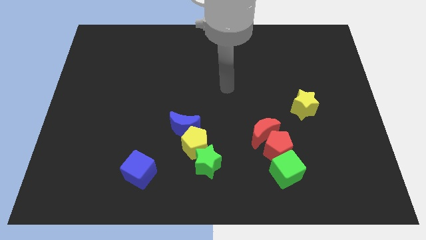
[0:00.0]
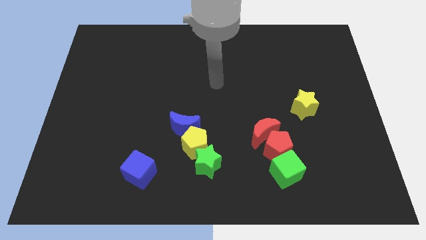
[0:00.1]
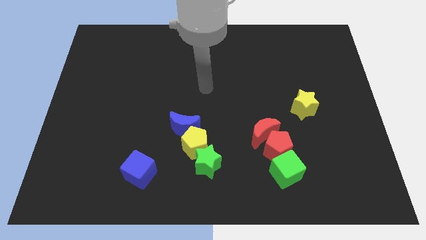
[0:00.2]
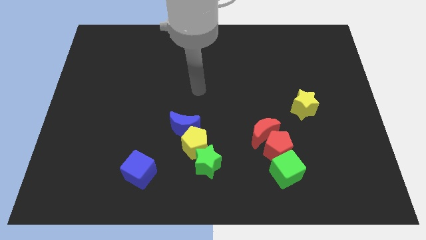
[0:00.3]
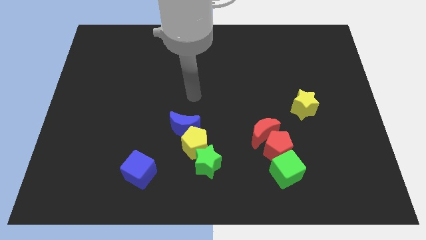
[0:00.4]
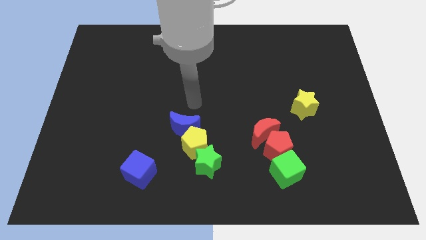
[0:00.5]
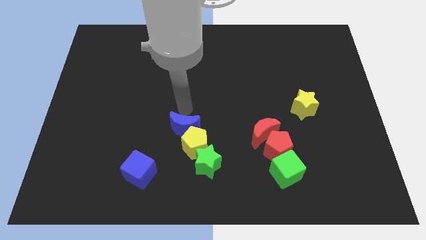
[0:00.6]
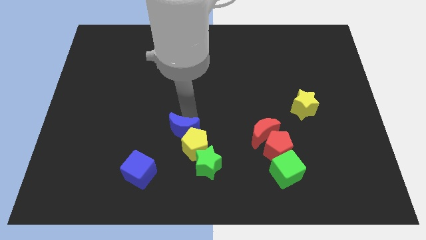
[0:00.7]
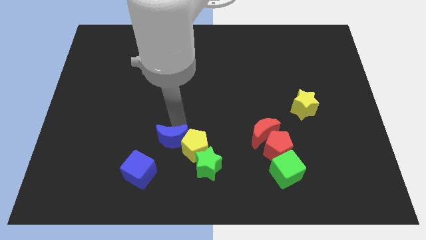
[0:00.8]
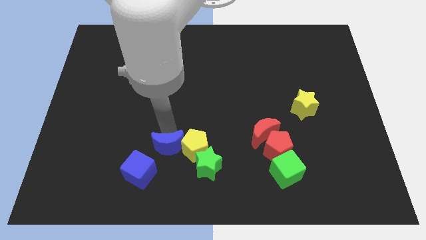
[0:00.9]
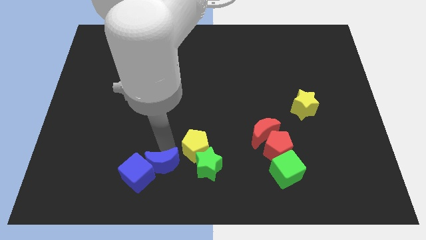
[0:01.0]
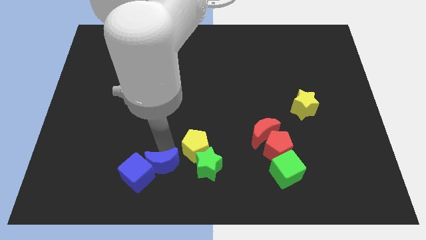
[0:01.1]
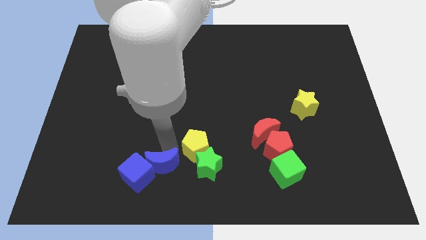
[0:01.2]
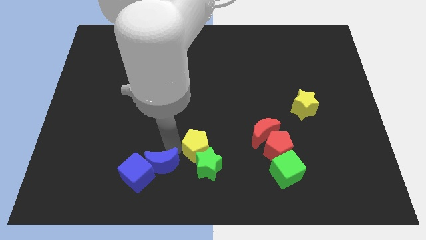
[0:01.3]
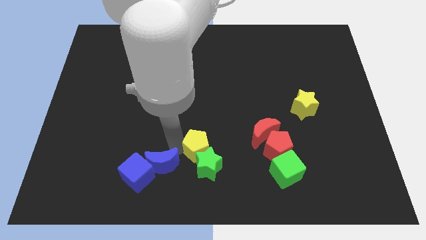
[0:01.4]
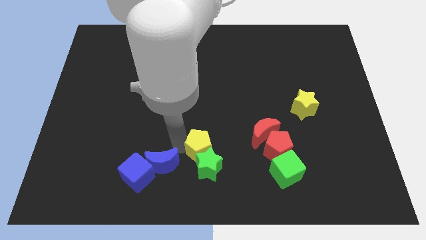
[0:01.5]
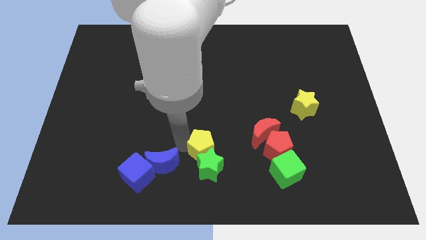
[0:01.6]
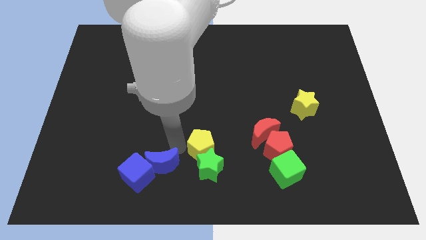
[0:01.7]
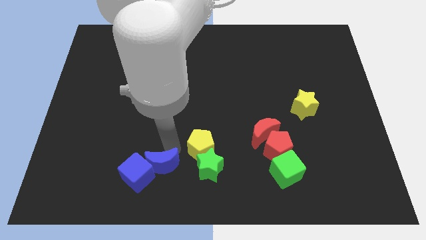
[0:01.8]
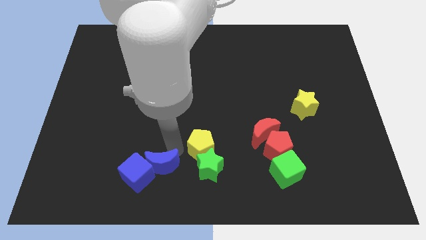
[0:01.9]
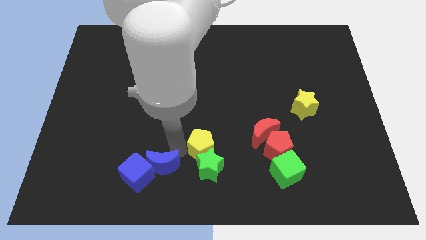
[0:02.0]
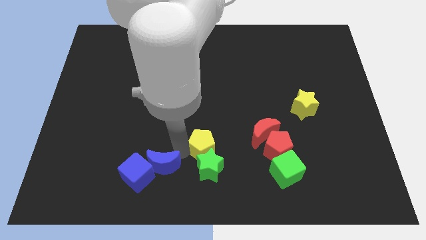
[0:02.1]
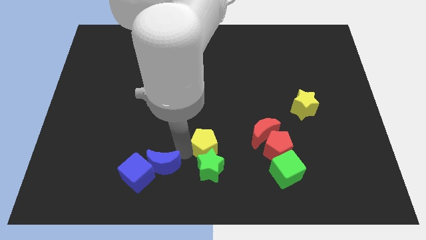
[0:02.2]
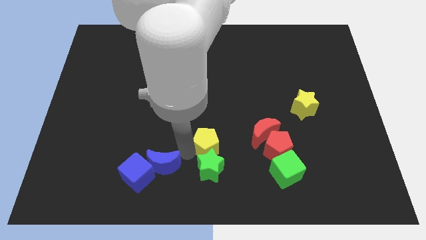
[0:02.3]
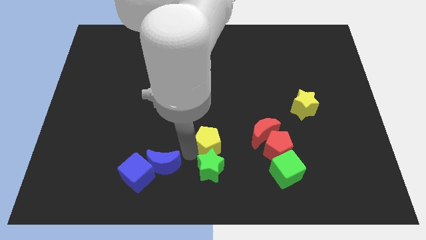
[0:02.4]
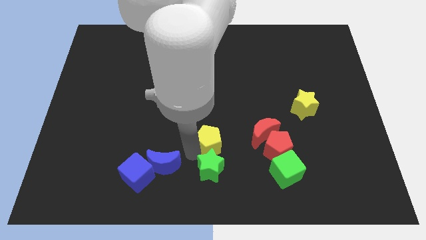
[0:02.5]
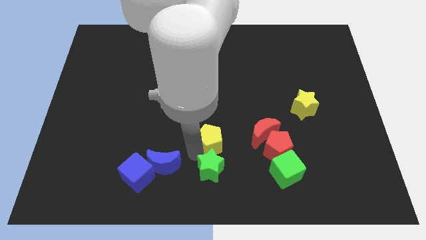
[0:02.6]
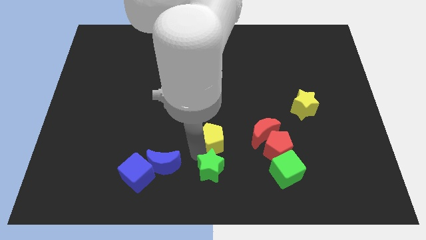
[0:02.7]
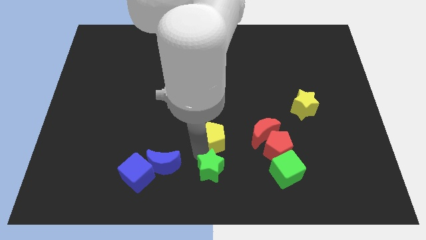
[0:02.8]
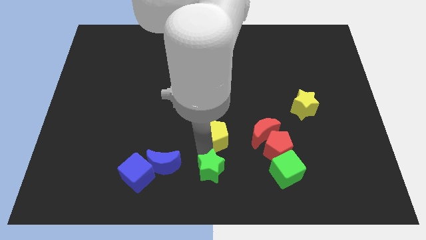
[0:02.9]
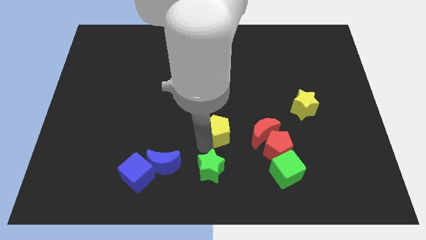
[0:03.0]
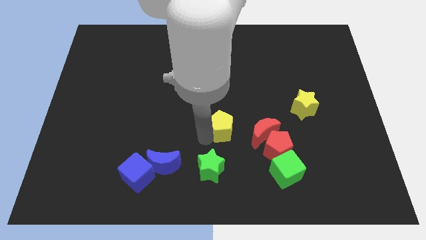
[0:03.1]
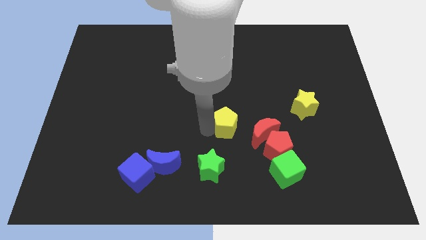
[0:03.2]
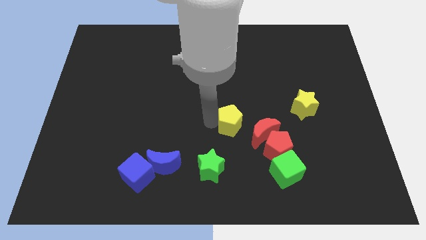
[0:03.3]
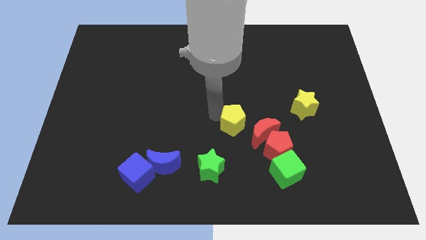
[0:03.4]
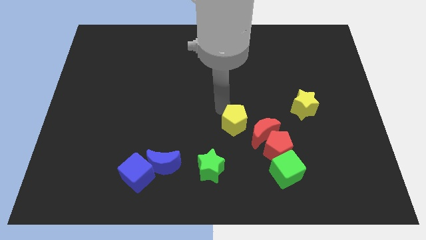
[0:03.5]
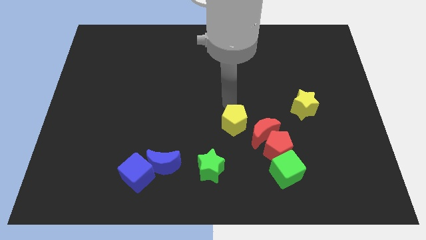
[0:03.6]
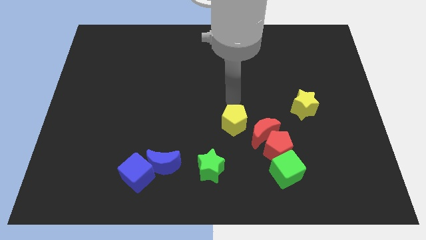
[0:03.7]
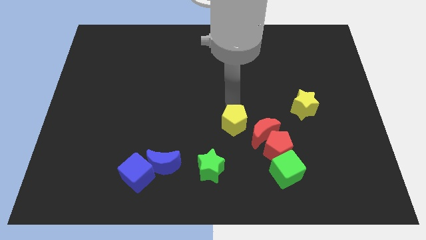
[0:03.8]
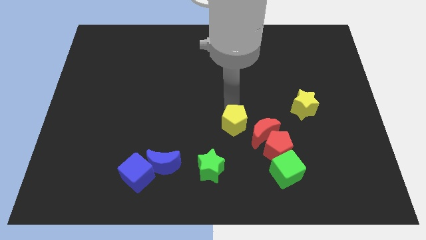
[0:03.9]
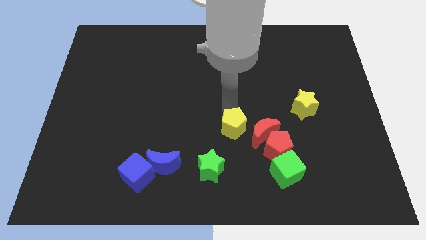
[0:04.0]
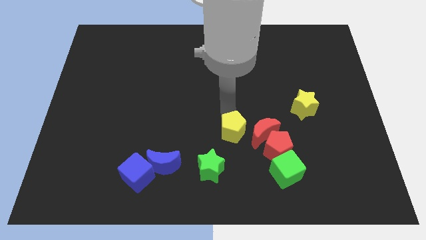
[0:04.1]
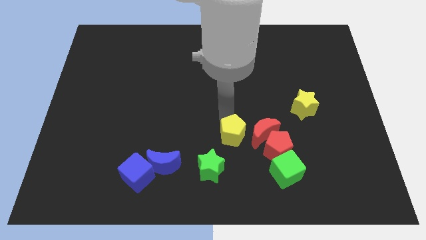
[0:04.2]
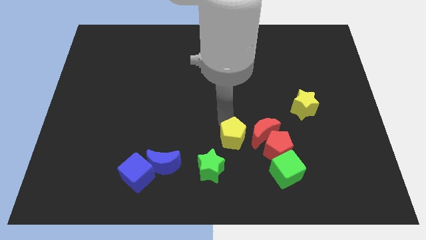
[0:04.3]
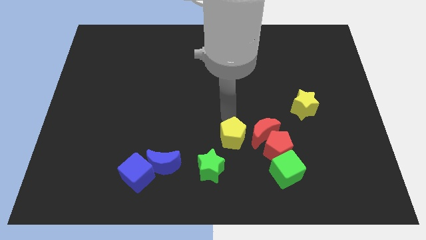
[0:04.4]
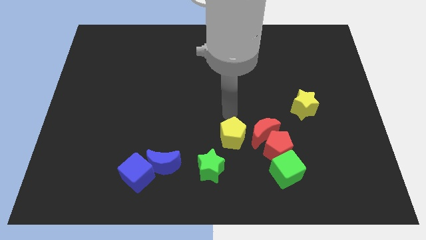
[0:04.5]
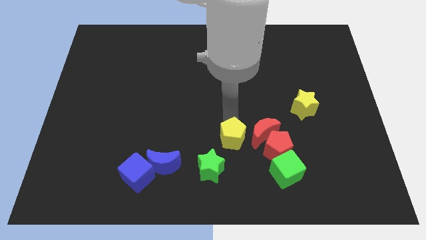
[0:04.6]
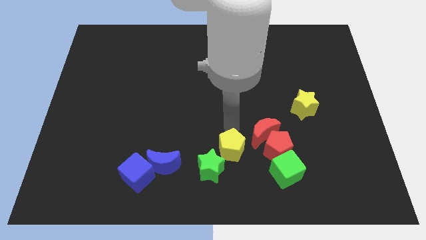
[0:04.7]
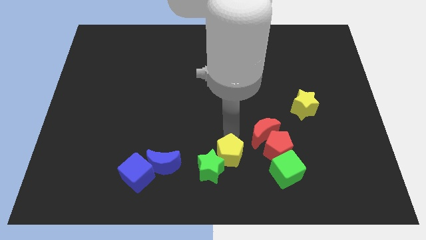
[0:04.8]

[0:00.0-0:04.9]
slide the yellow pentagon to the left of the green cube

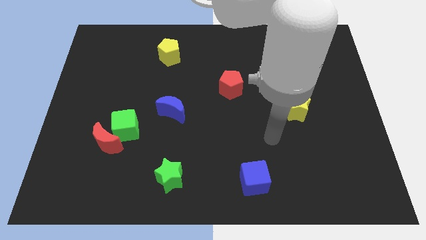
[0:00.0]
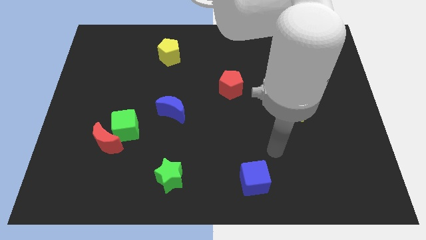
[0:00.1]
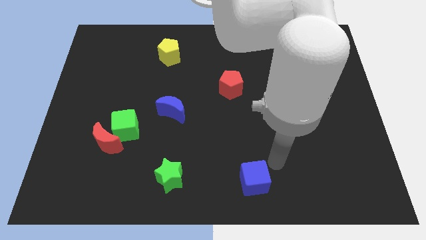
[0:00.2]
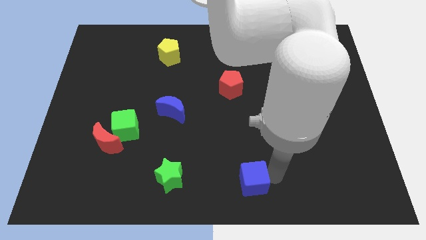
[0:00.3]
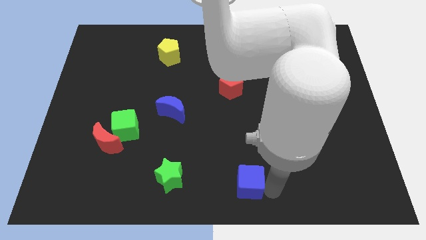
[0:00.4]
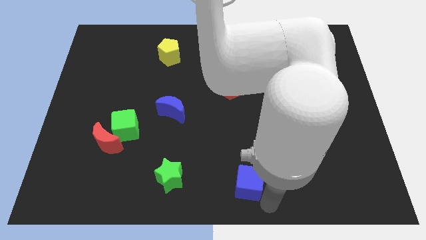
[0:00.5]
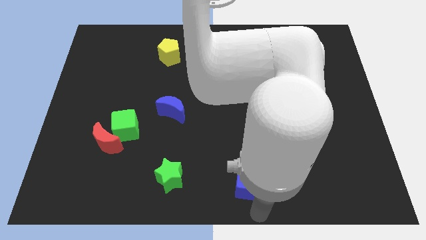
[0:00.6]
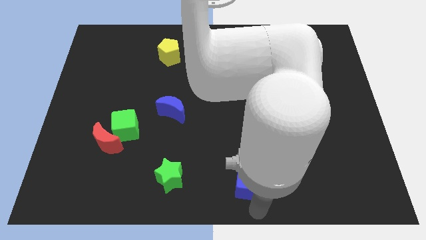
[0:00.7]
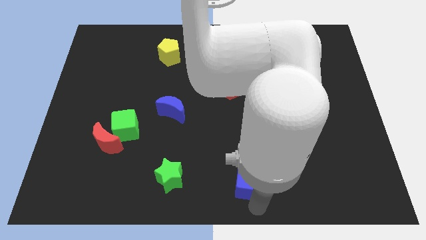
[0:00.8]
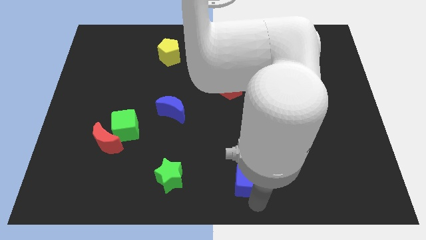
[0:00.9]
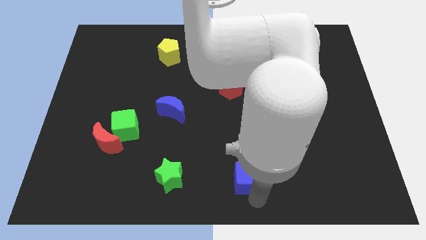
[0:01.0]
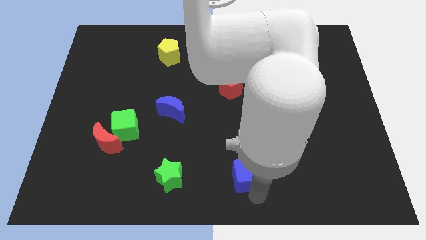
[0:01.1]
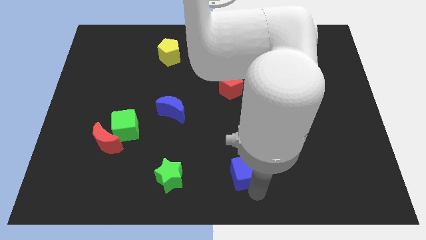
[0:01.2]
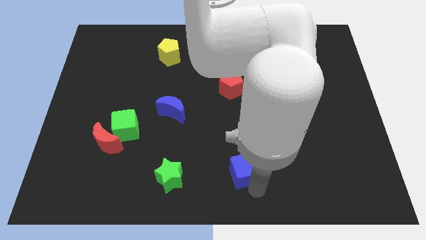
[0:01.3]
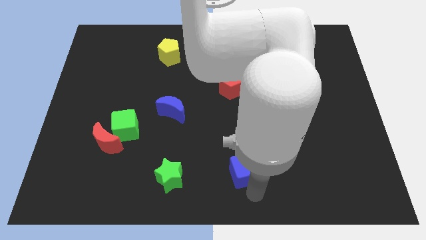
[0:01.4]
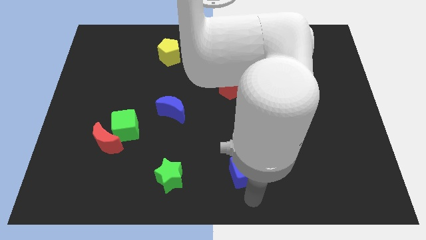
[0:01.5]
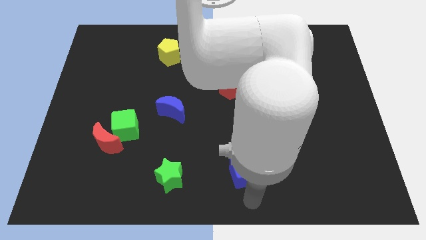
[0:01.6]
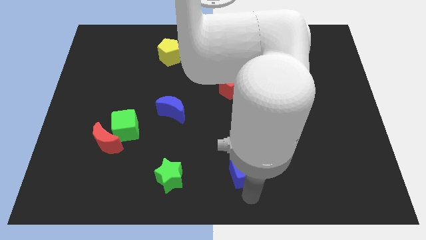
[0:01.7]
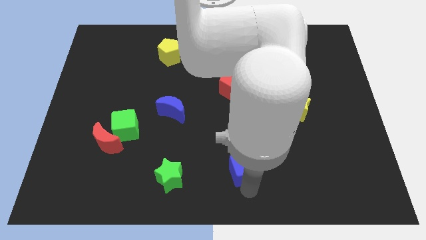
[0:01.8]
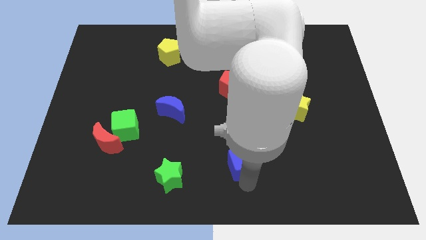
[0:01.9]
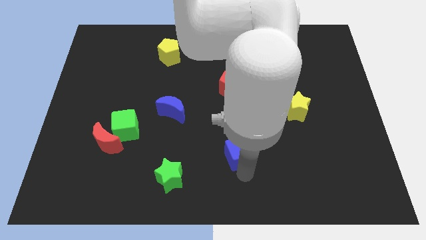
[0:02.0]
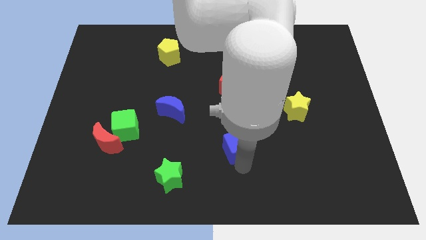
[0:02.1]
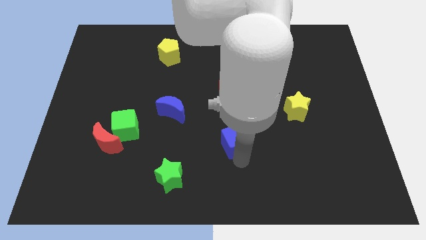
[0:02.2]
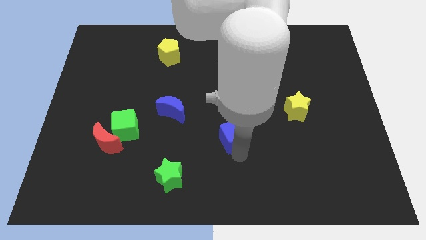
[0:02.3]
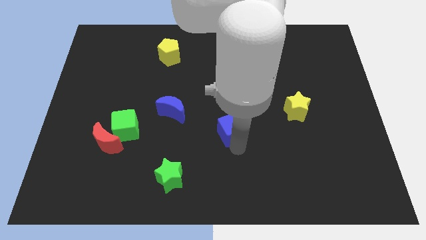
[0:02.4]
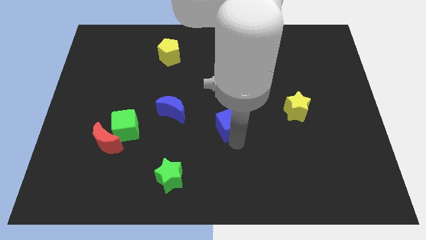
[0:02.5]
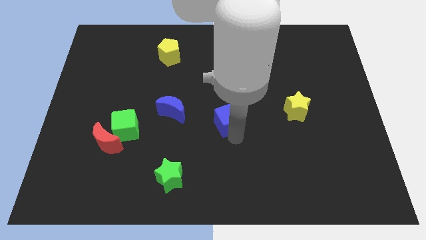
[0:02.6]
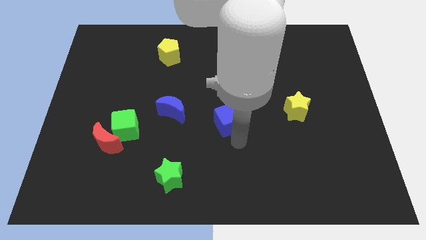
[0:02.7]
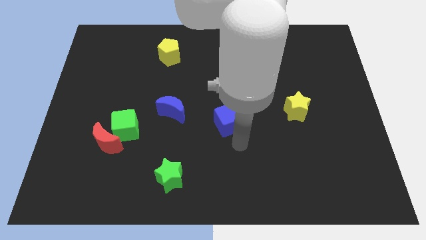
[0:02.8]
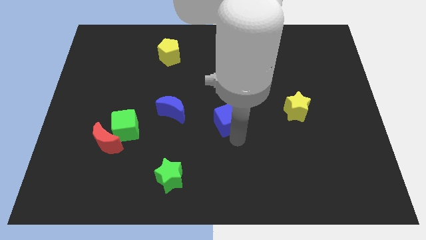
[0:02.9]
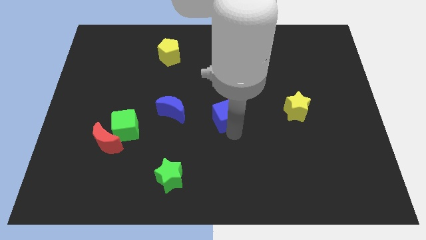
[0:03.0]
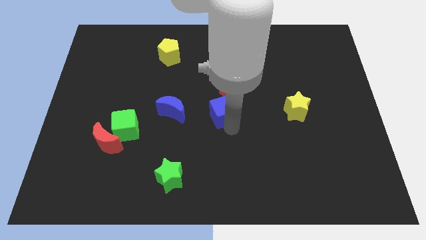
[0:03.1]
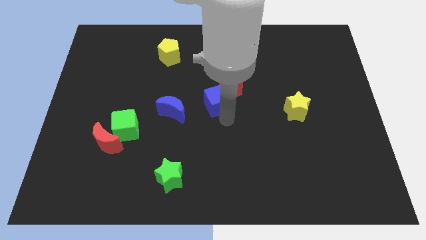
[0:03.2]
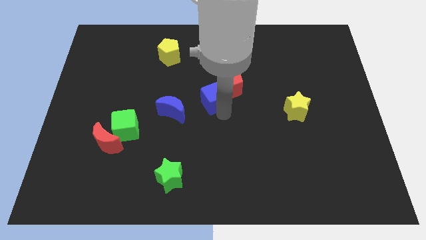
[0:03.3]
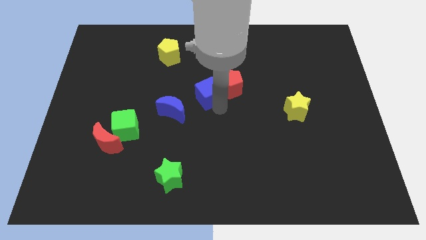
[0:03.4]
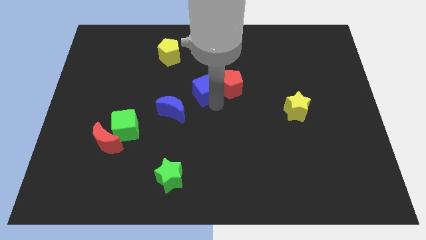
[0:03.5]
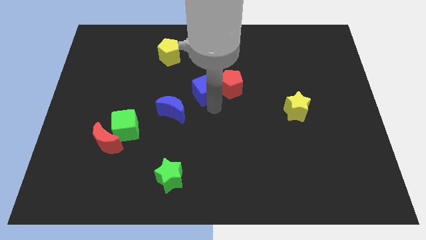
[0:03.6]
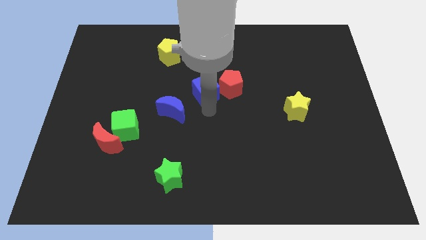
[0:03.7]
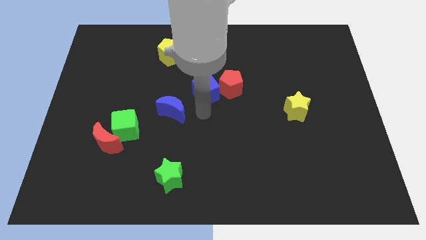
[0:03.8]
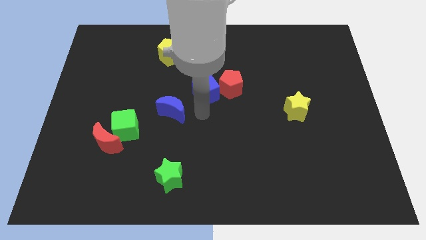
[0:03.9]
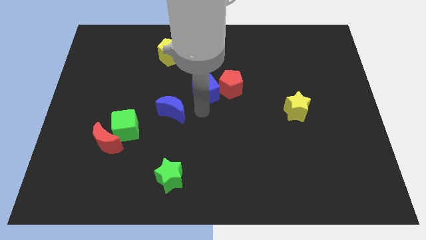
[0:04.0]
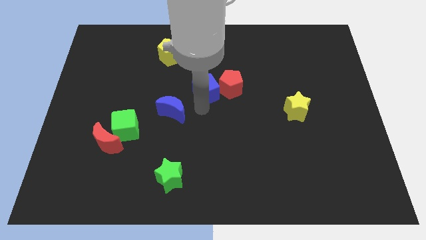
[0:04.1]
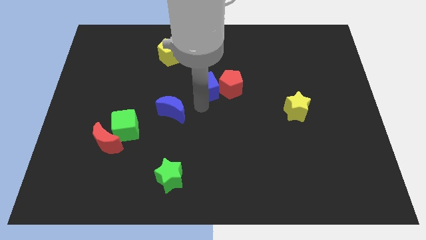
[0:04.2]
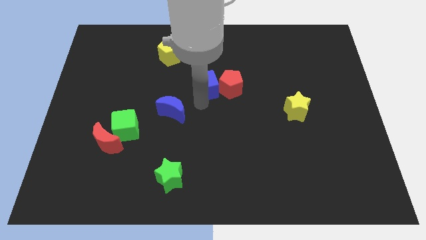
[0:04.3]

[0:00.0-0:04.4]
move the blue cube to the top left side of the red pentagon
